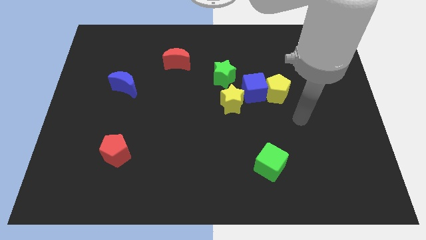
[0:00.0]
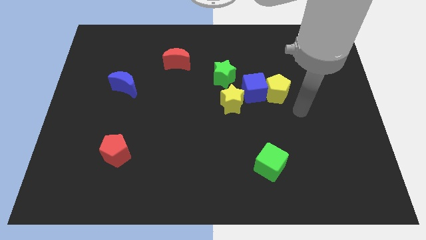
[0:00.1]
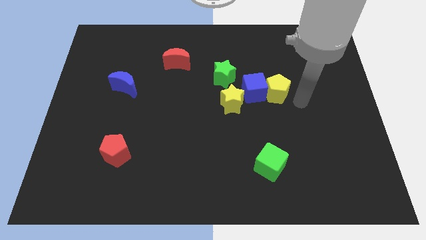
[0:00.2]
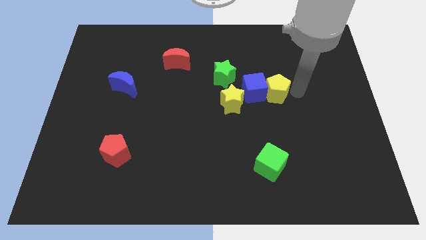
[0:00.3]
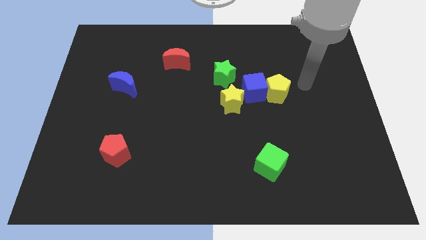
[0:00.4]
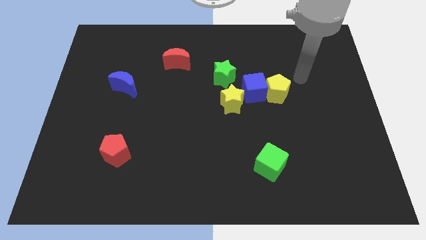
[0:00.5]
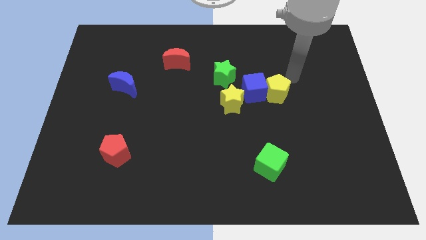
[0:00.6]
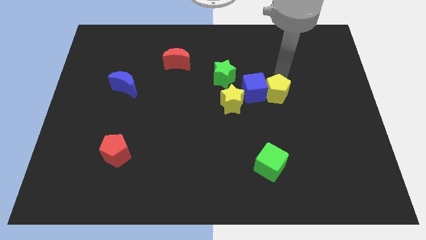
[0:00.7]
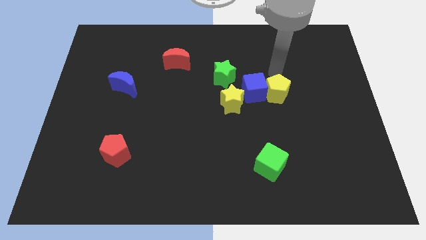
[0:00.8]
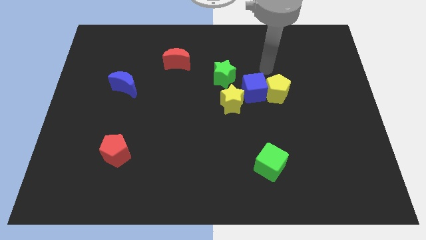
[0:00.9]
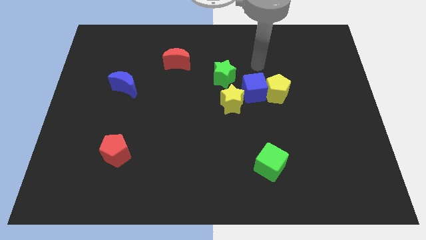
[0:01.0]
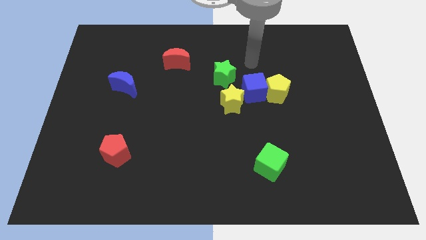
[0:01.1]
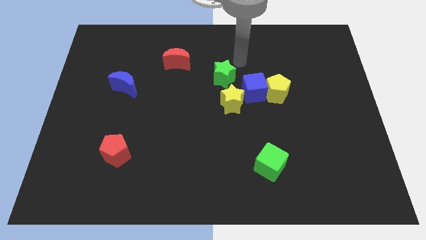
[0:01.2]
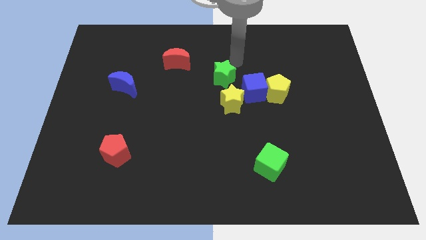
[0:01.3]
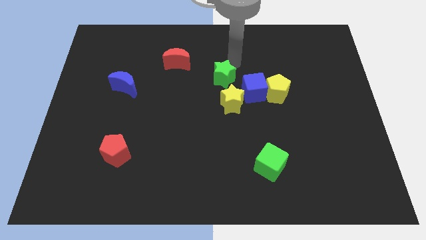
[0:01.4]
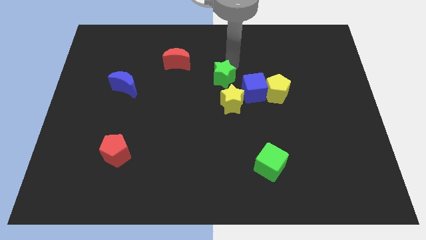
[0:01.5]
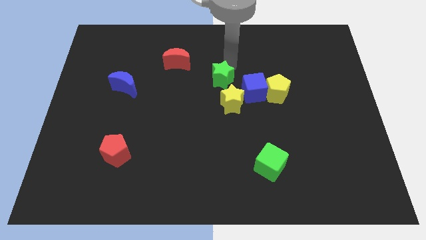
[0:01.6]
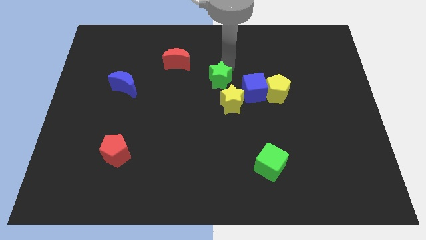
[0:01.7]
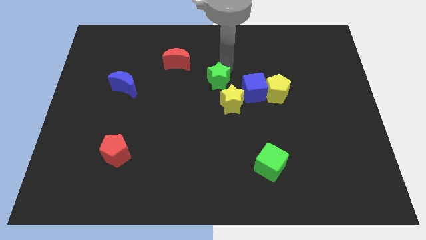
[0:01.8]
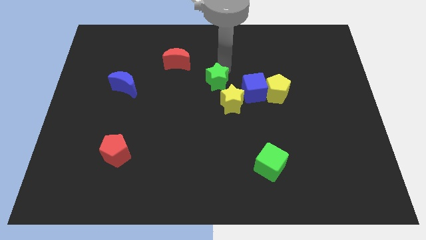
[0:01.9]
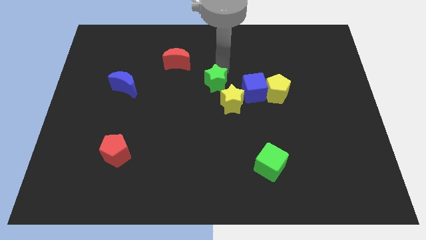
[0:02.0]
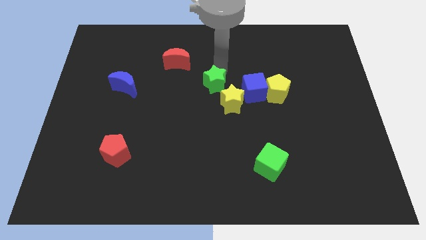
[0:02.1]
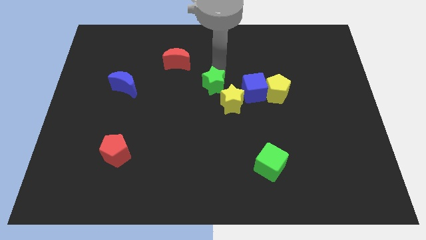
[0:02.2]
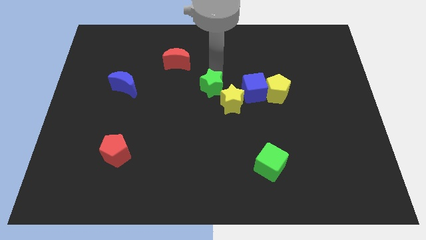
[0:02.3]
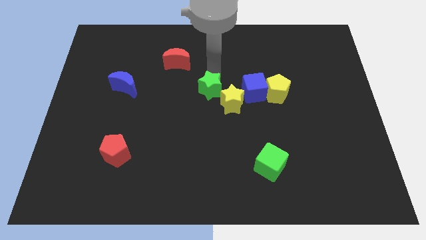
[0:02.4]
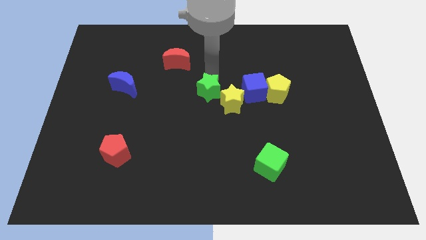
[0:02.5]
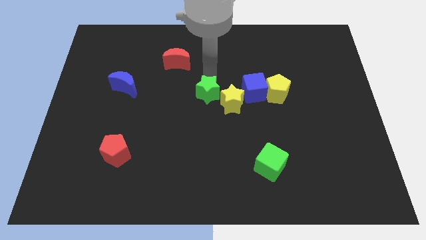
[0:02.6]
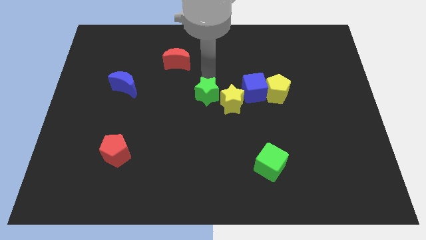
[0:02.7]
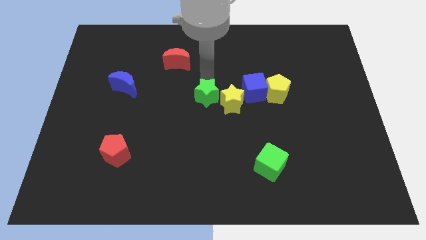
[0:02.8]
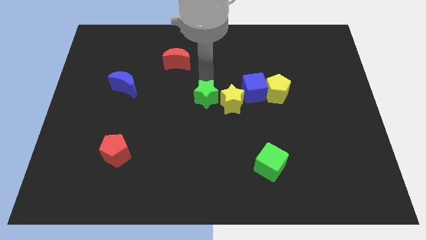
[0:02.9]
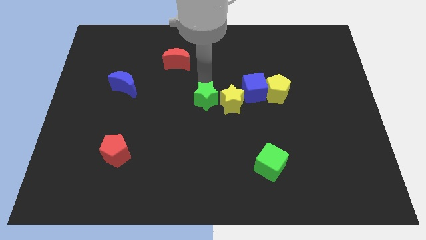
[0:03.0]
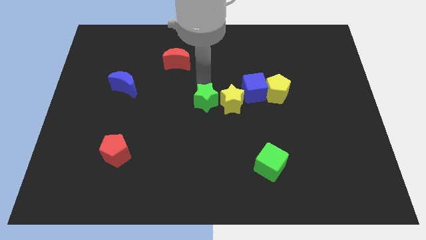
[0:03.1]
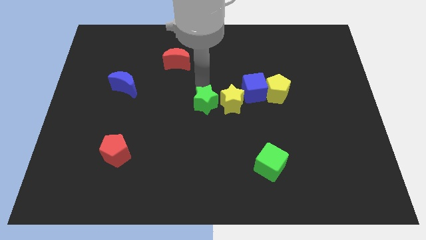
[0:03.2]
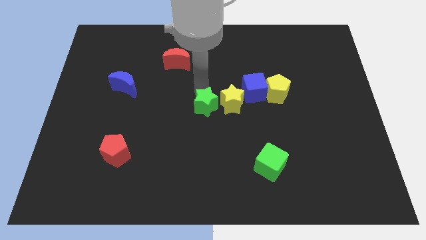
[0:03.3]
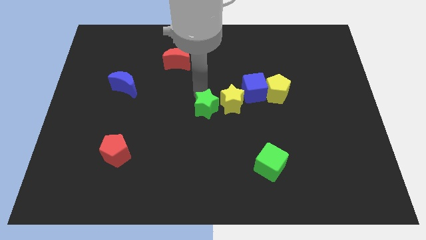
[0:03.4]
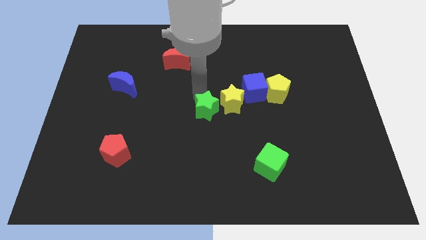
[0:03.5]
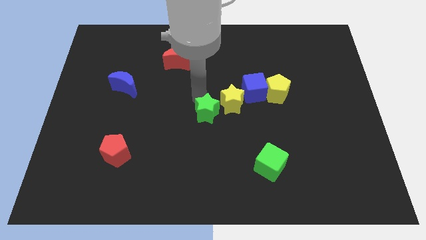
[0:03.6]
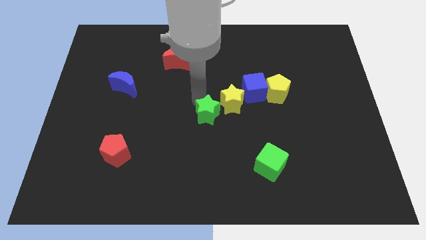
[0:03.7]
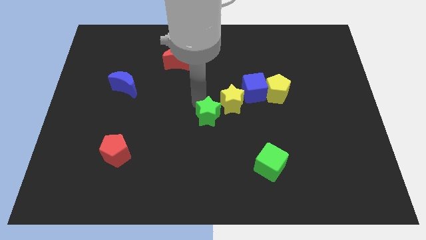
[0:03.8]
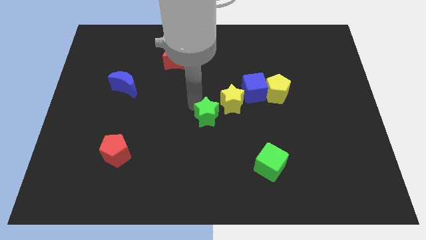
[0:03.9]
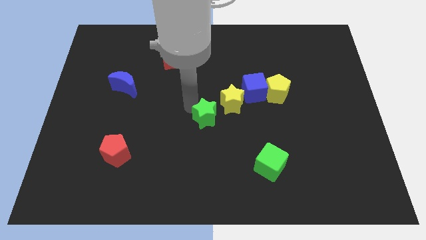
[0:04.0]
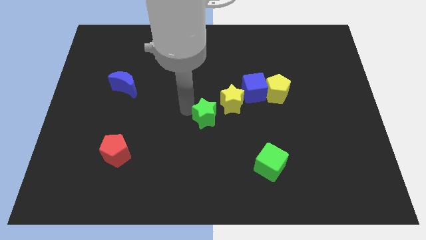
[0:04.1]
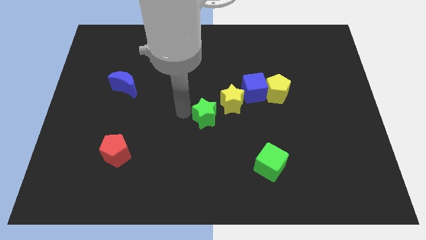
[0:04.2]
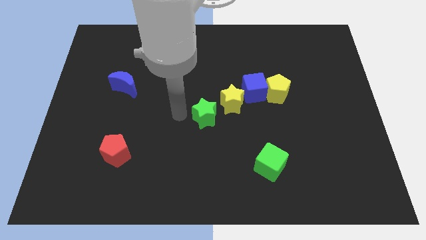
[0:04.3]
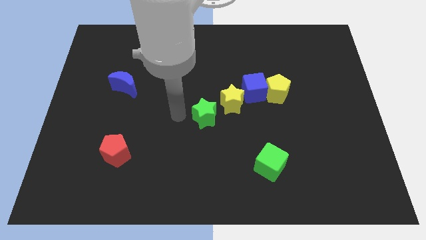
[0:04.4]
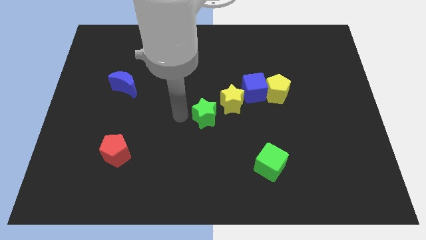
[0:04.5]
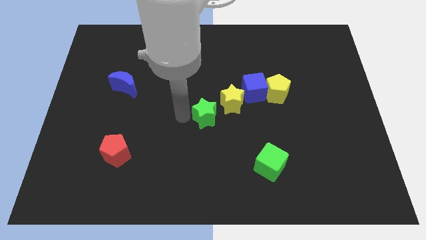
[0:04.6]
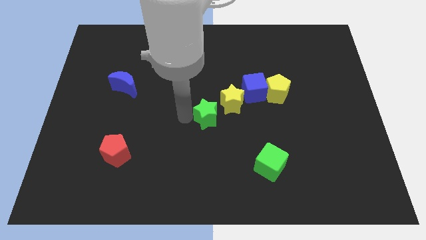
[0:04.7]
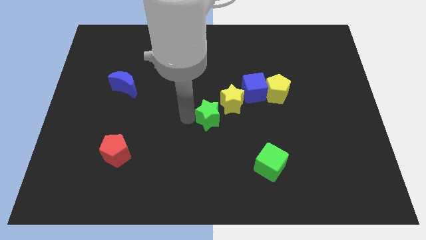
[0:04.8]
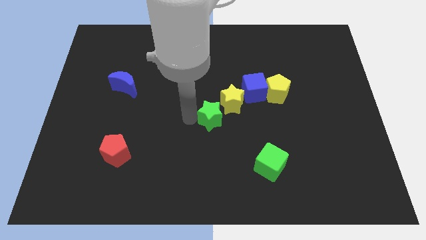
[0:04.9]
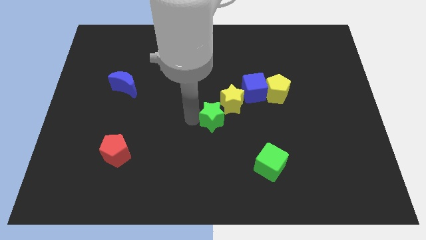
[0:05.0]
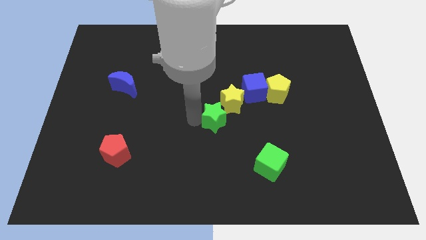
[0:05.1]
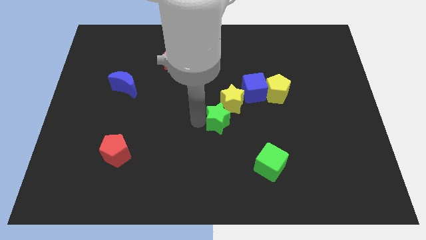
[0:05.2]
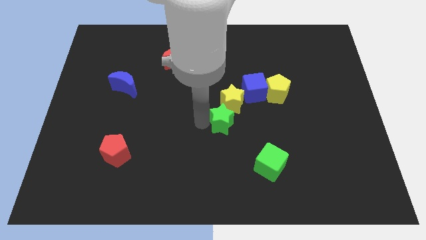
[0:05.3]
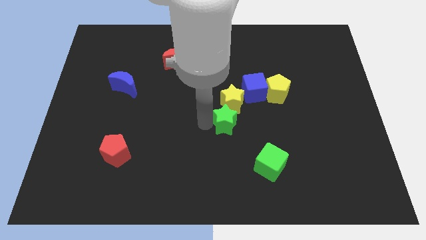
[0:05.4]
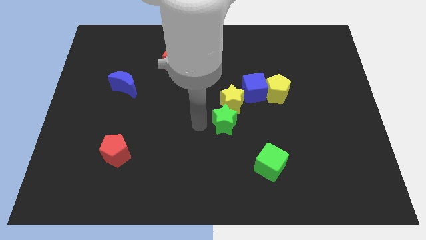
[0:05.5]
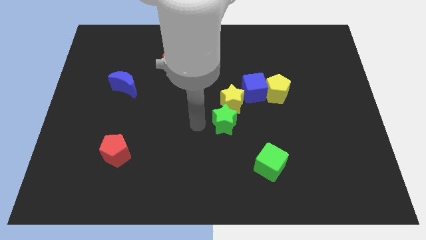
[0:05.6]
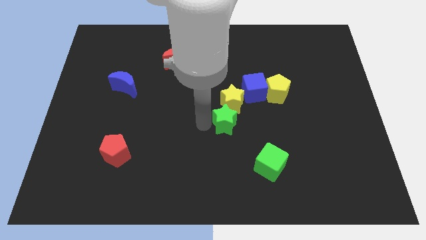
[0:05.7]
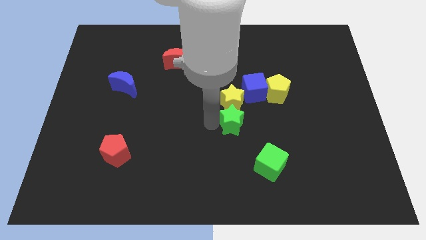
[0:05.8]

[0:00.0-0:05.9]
push the green star to the bottom right side of the yellow star

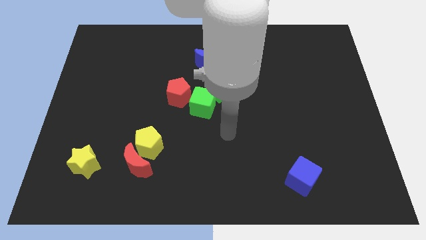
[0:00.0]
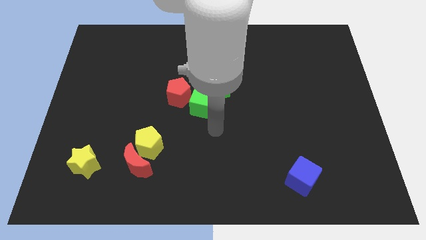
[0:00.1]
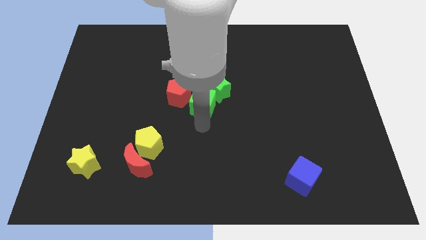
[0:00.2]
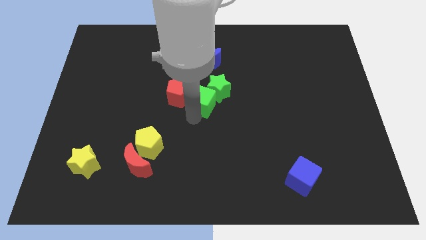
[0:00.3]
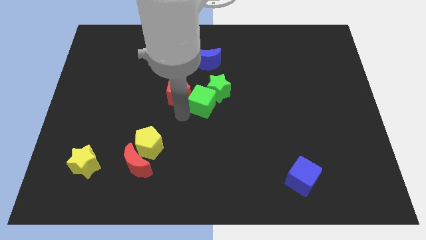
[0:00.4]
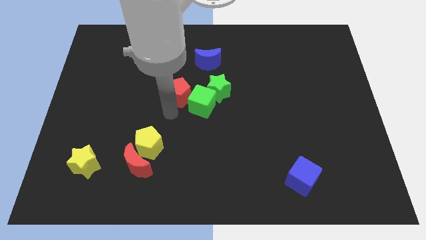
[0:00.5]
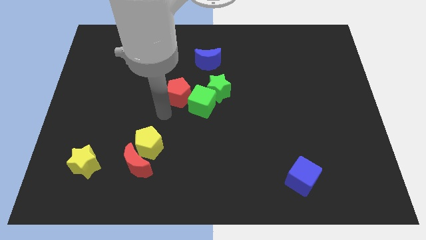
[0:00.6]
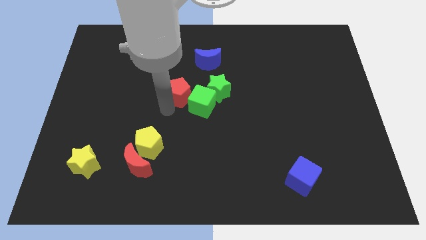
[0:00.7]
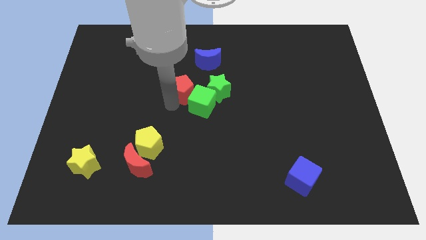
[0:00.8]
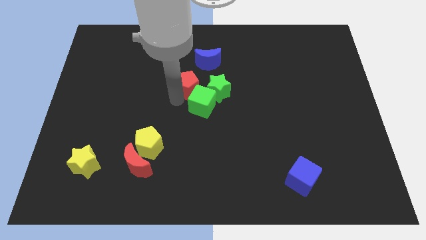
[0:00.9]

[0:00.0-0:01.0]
slide the red pentagon to the top left of the green star
